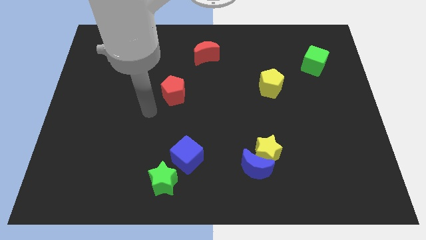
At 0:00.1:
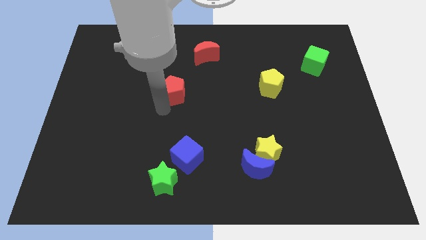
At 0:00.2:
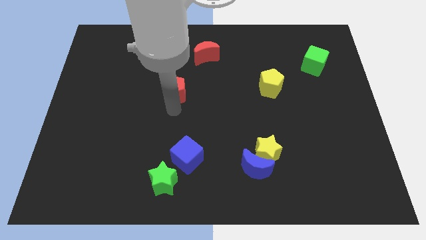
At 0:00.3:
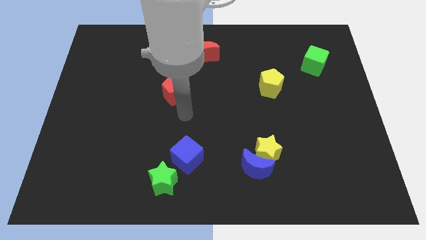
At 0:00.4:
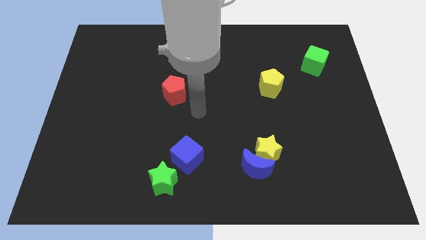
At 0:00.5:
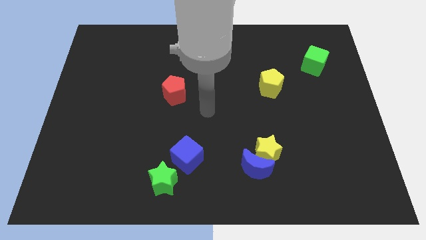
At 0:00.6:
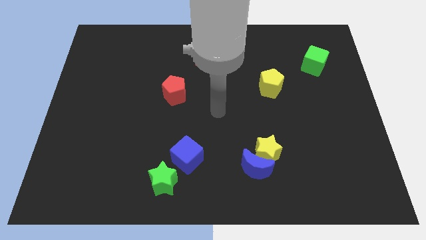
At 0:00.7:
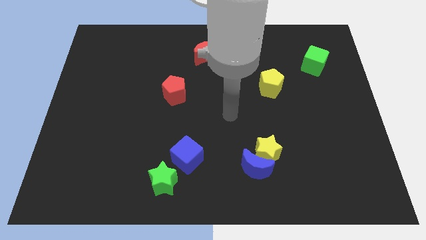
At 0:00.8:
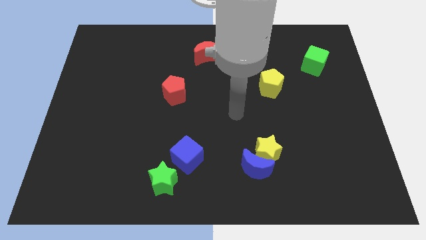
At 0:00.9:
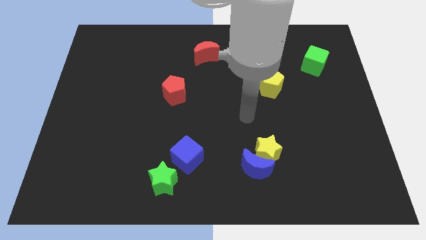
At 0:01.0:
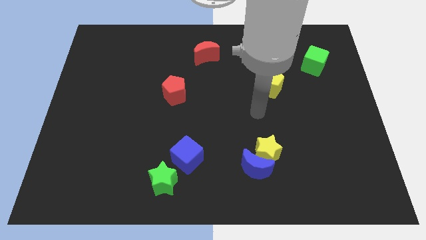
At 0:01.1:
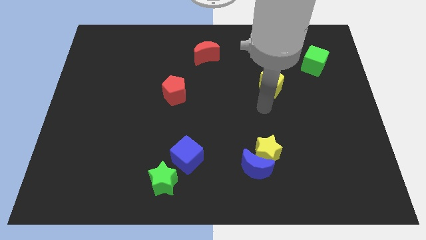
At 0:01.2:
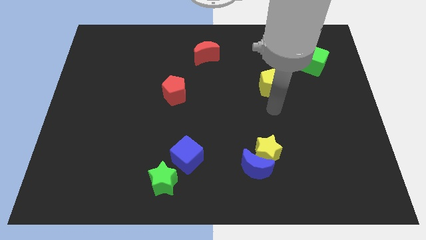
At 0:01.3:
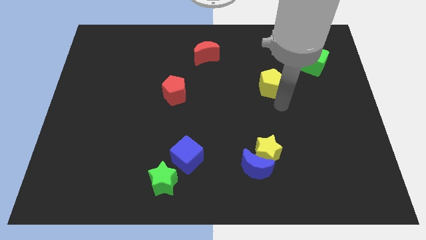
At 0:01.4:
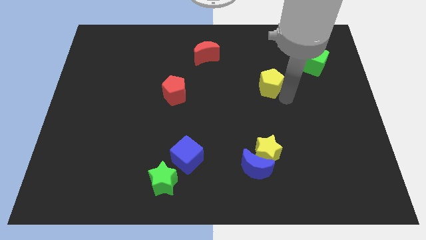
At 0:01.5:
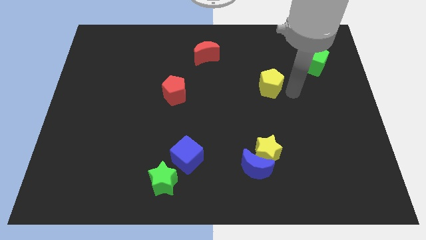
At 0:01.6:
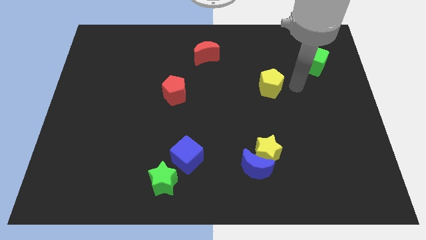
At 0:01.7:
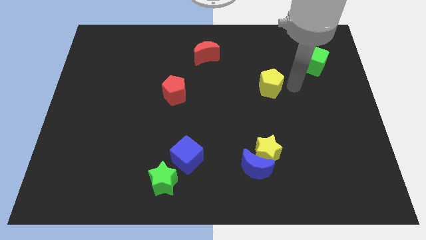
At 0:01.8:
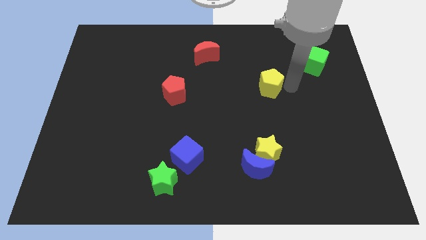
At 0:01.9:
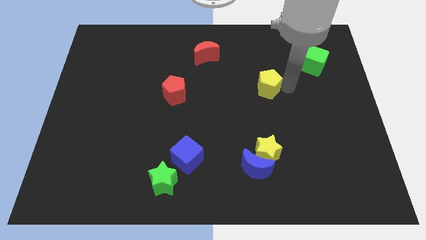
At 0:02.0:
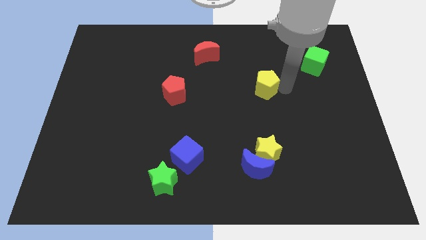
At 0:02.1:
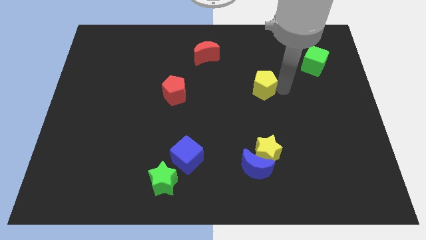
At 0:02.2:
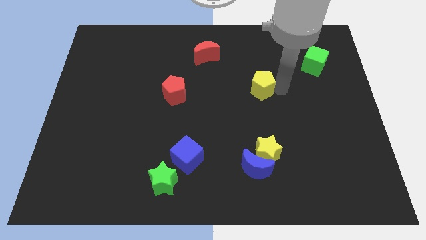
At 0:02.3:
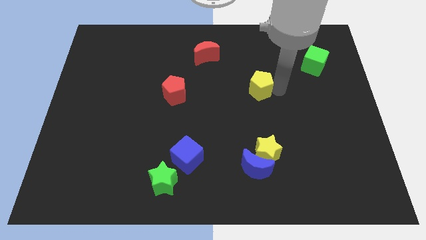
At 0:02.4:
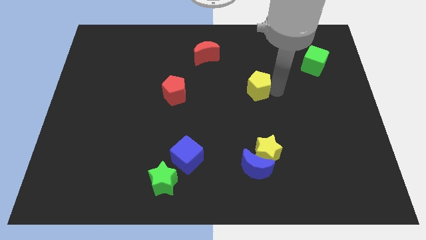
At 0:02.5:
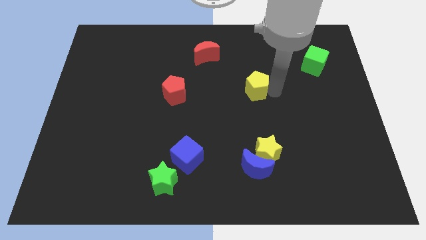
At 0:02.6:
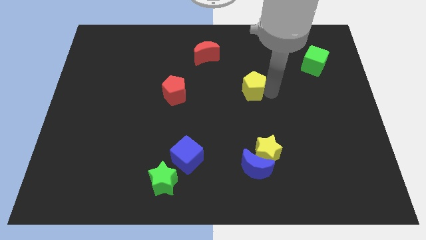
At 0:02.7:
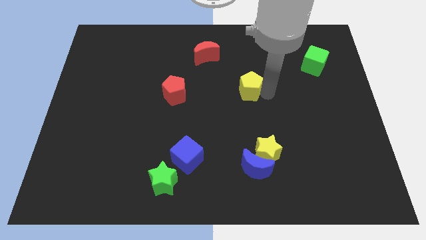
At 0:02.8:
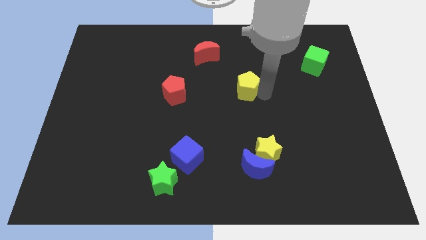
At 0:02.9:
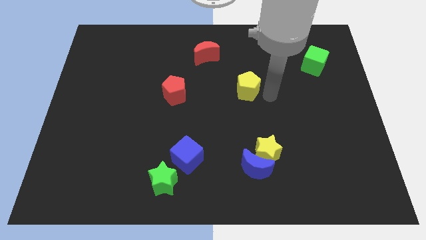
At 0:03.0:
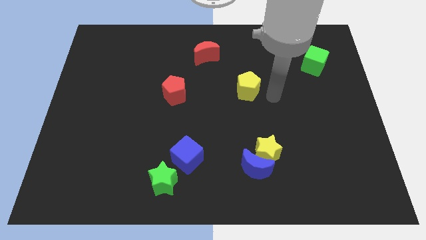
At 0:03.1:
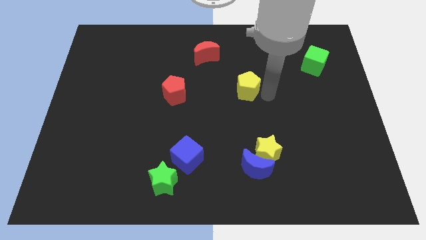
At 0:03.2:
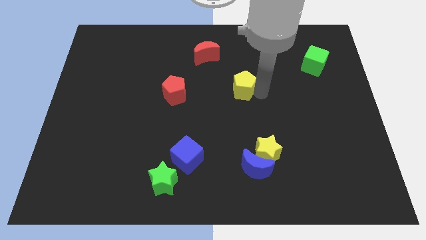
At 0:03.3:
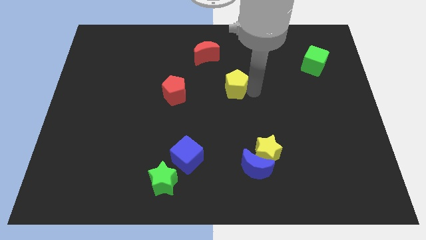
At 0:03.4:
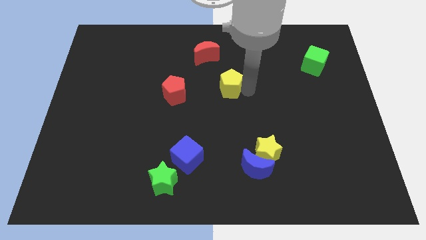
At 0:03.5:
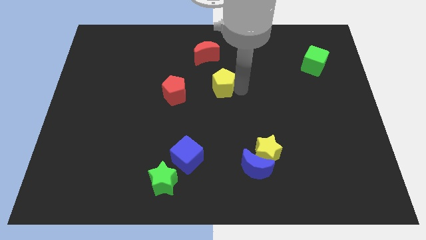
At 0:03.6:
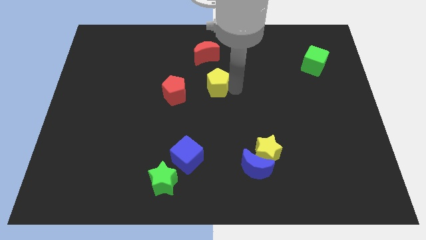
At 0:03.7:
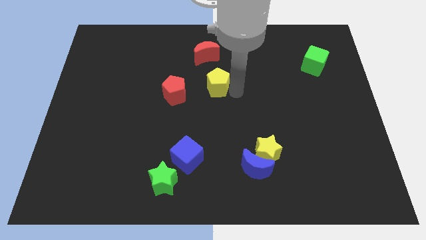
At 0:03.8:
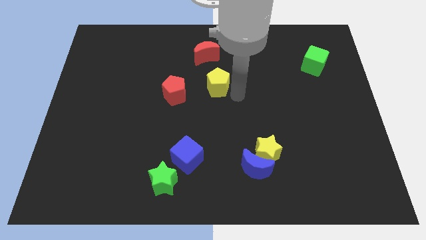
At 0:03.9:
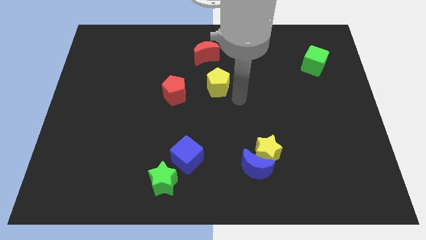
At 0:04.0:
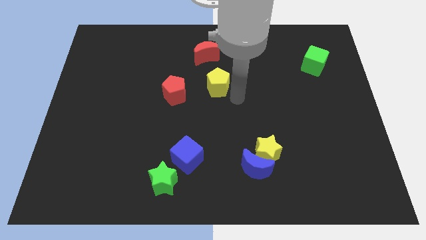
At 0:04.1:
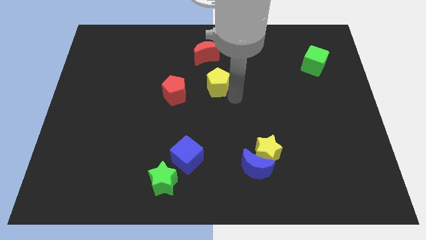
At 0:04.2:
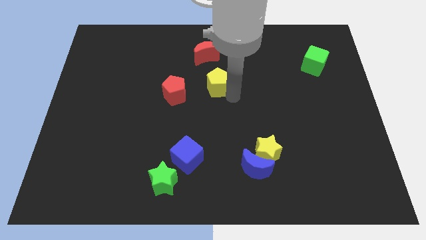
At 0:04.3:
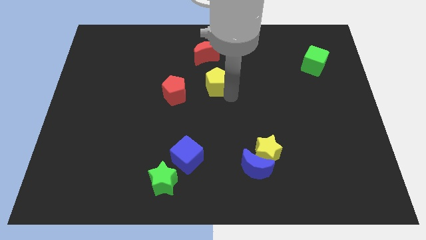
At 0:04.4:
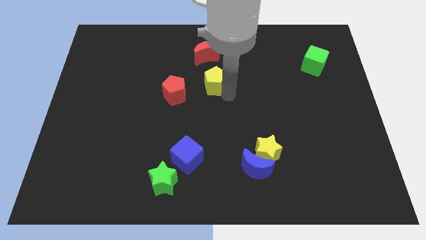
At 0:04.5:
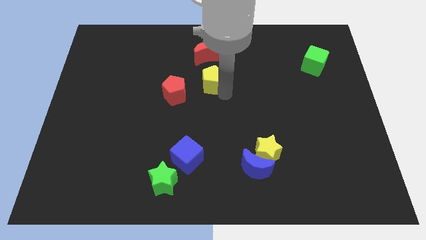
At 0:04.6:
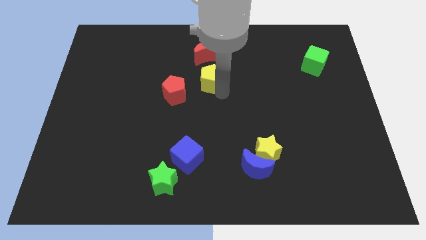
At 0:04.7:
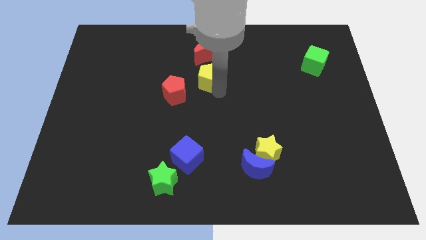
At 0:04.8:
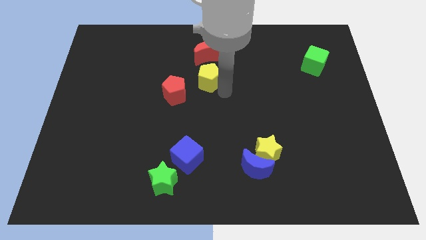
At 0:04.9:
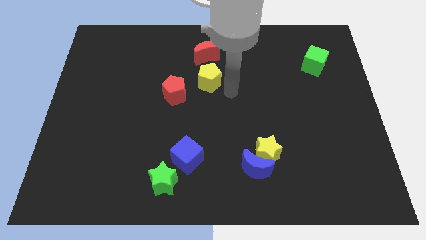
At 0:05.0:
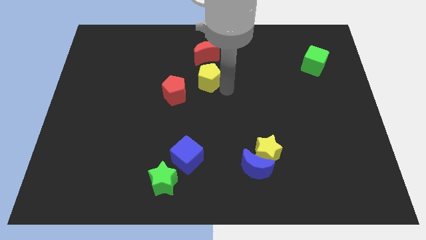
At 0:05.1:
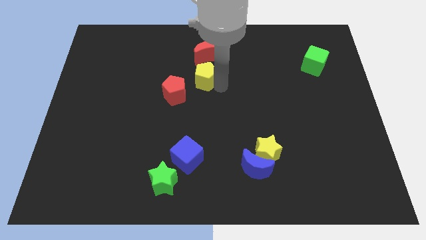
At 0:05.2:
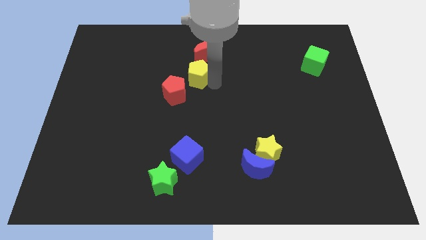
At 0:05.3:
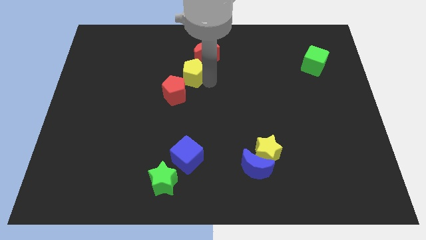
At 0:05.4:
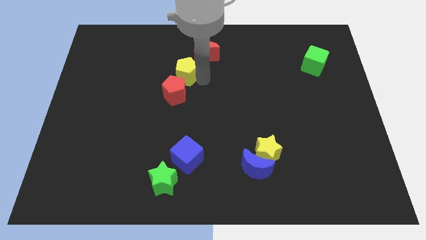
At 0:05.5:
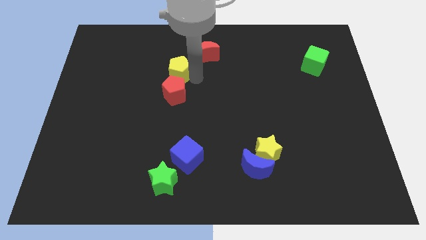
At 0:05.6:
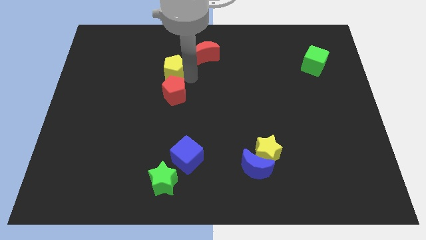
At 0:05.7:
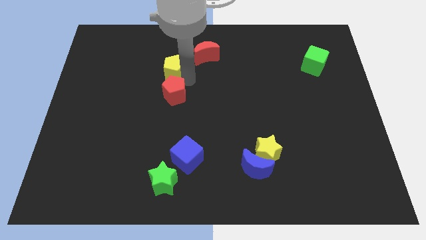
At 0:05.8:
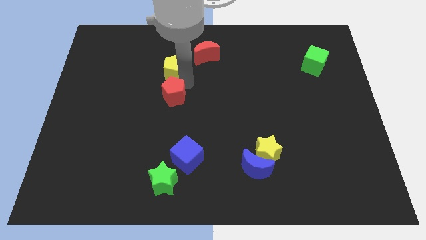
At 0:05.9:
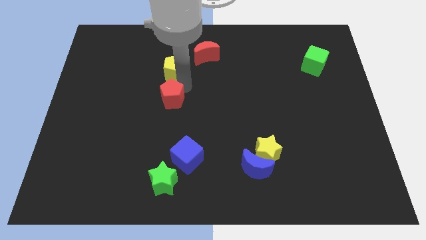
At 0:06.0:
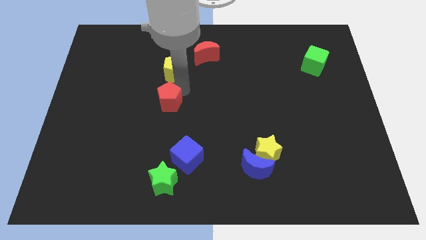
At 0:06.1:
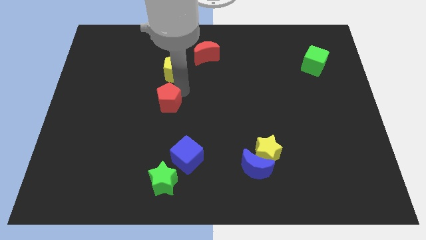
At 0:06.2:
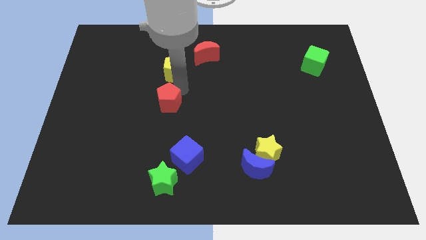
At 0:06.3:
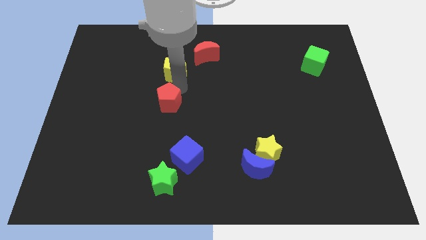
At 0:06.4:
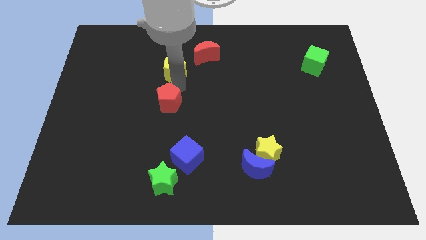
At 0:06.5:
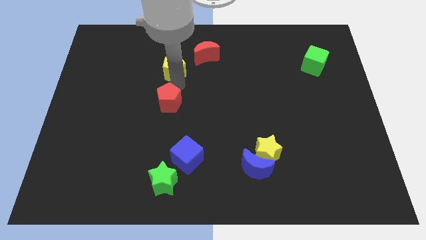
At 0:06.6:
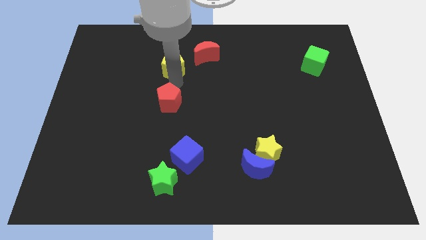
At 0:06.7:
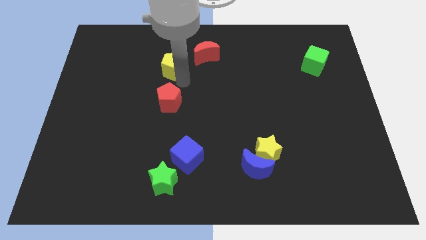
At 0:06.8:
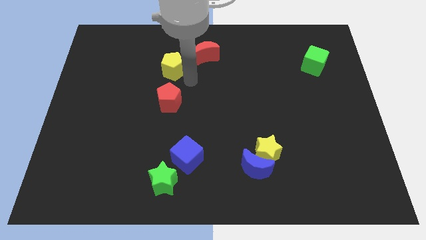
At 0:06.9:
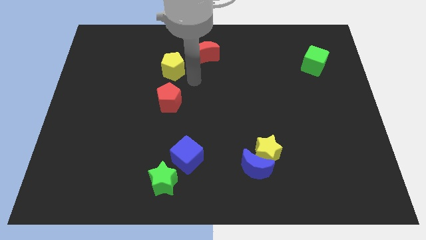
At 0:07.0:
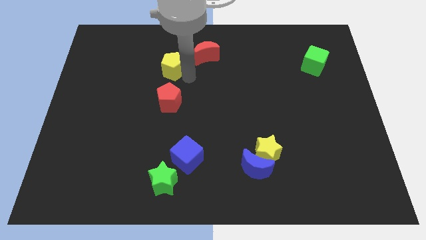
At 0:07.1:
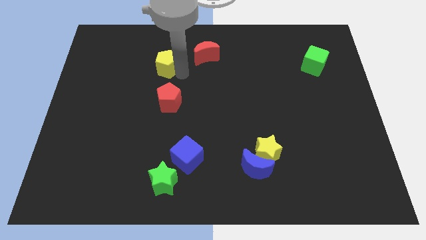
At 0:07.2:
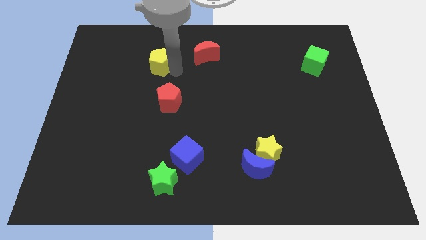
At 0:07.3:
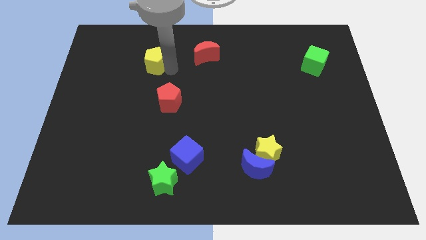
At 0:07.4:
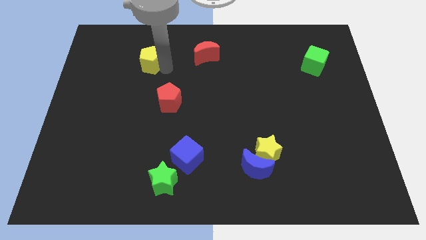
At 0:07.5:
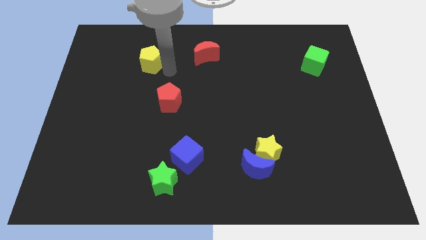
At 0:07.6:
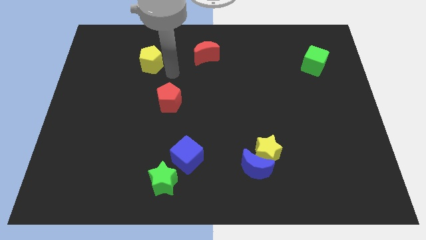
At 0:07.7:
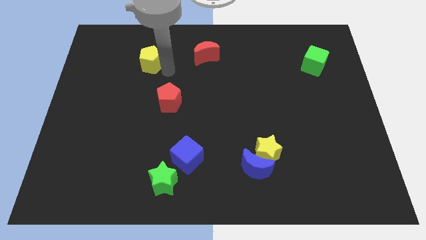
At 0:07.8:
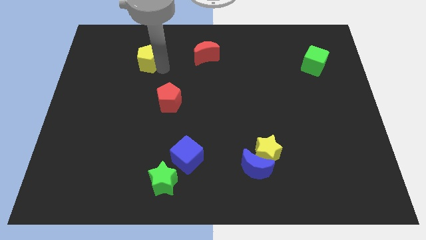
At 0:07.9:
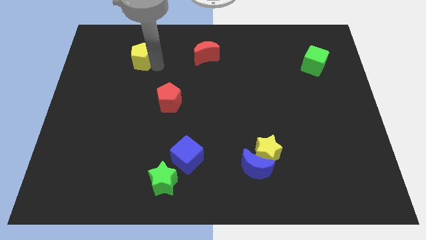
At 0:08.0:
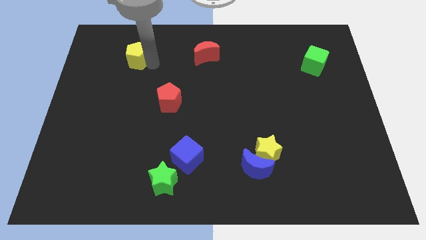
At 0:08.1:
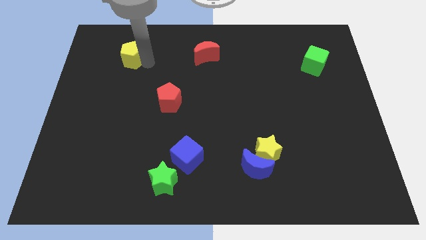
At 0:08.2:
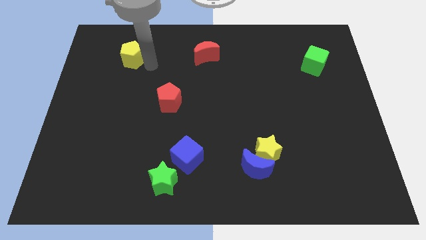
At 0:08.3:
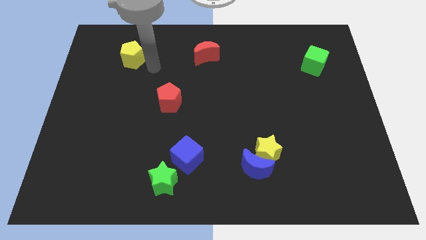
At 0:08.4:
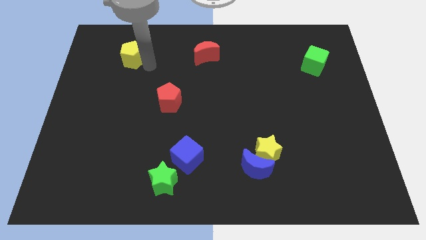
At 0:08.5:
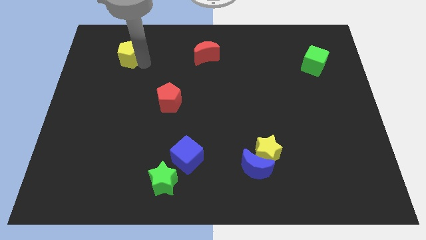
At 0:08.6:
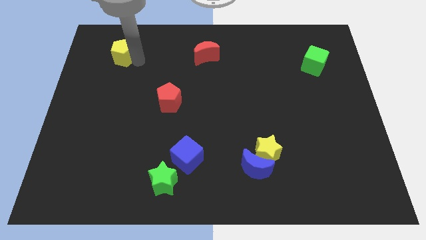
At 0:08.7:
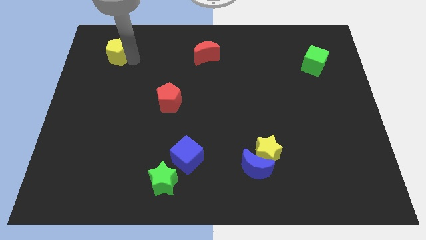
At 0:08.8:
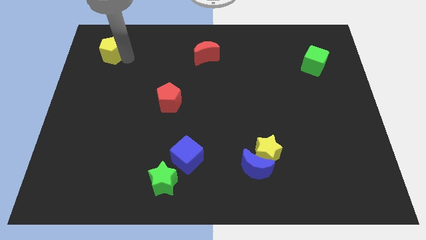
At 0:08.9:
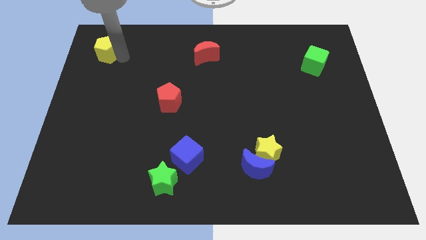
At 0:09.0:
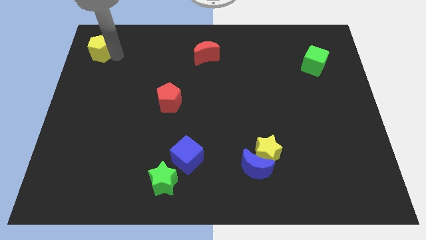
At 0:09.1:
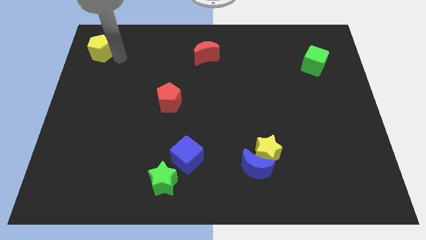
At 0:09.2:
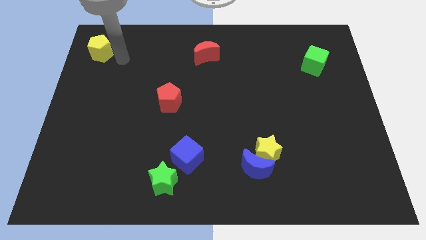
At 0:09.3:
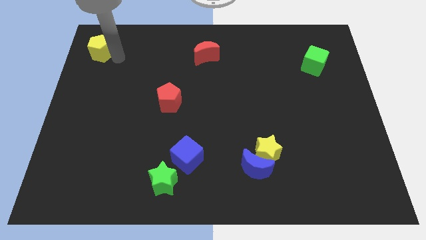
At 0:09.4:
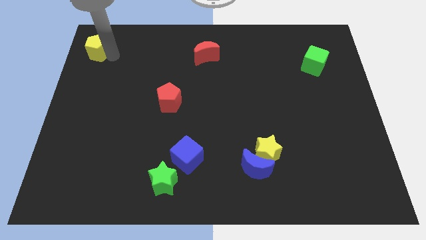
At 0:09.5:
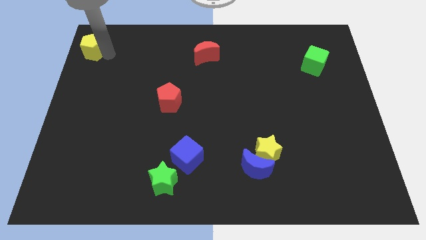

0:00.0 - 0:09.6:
put the yellow pentagon to the top left corner
